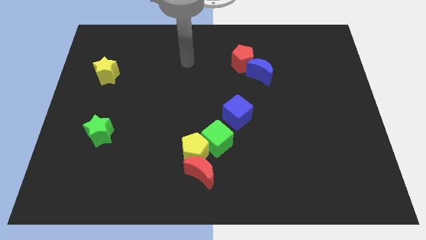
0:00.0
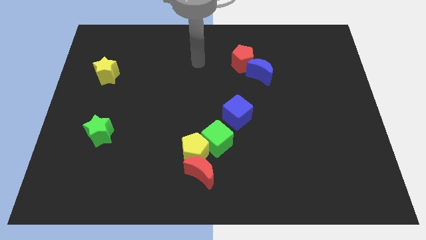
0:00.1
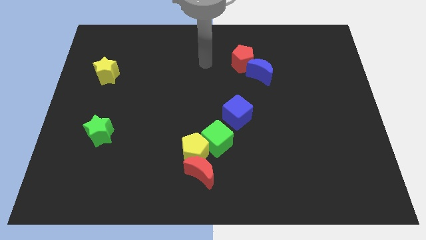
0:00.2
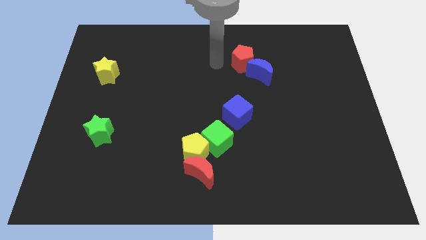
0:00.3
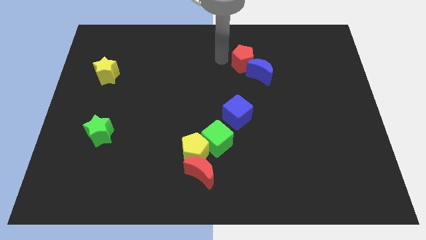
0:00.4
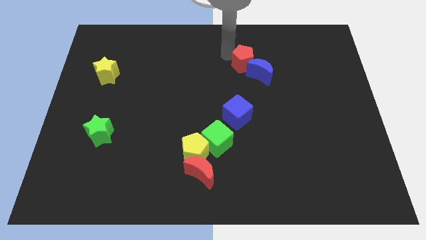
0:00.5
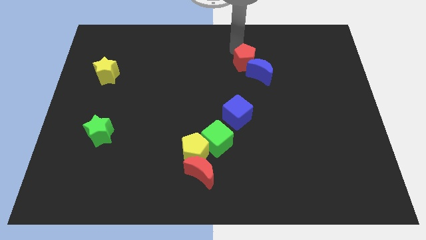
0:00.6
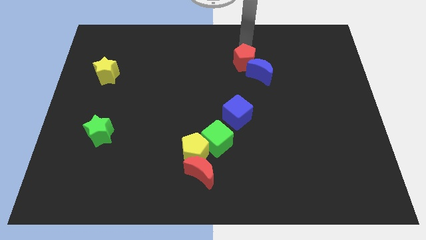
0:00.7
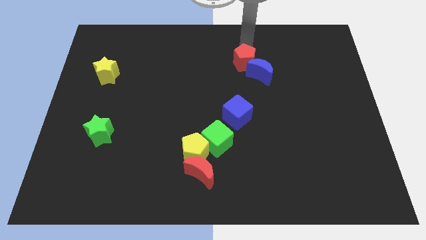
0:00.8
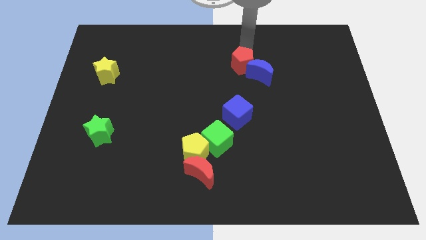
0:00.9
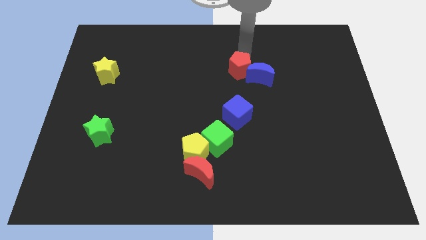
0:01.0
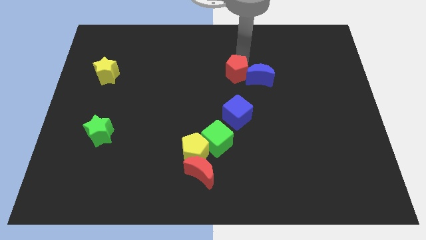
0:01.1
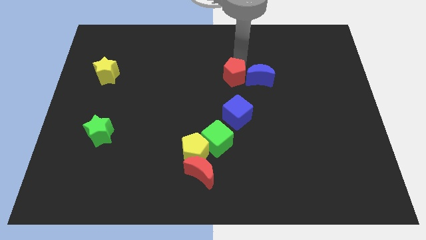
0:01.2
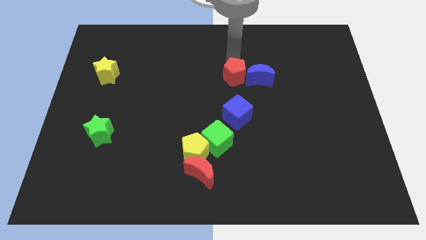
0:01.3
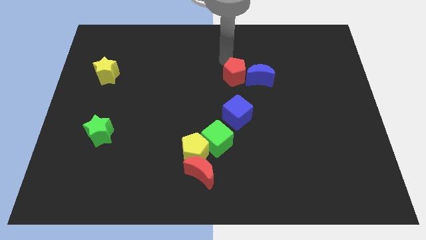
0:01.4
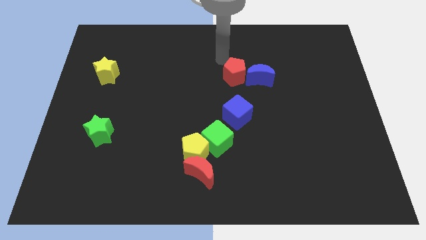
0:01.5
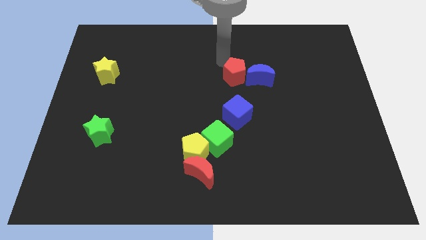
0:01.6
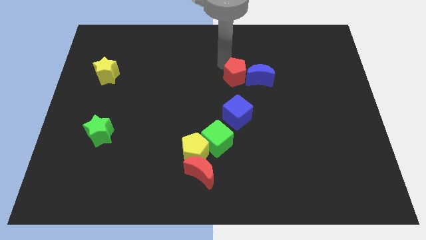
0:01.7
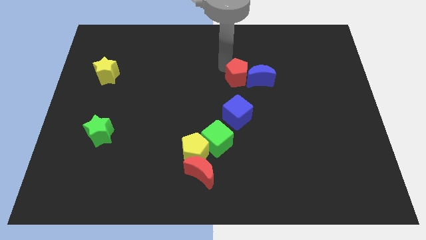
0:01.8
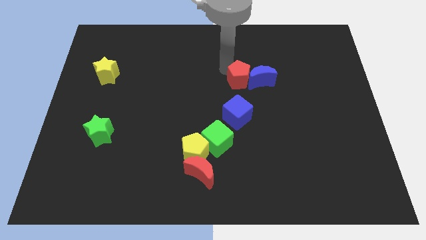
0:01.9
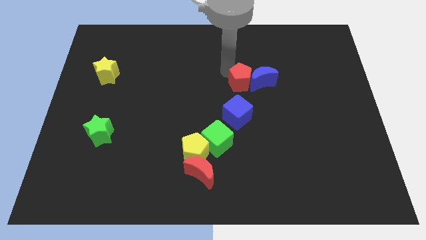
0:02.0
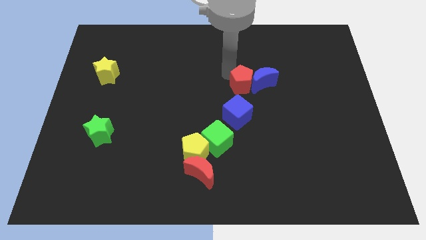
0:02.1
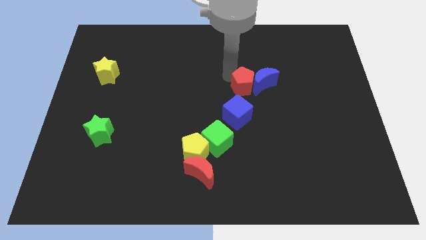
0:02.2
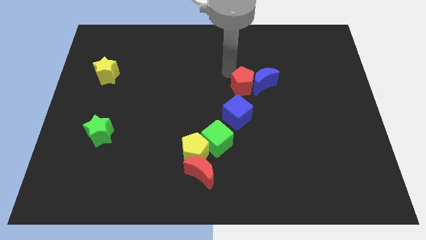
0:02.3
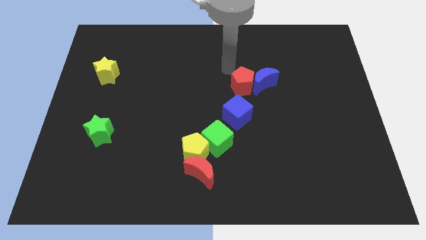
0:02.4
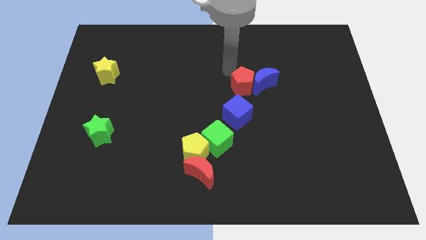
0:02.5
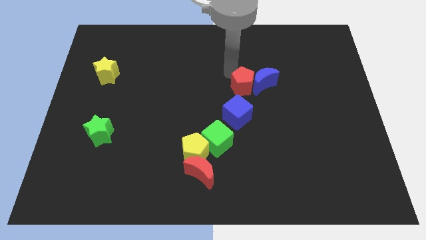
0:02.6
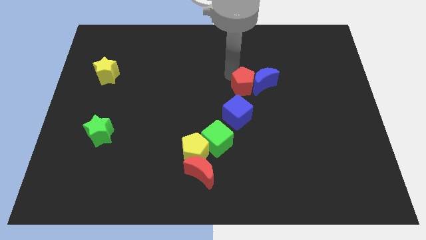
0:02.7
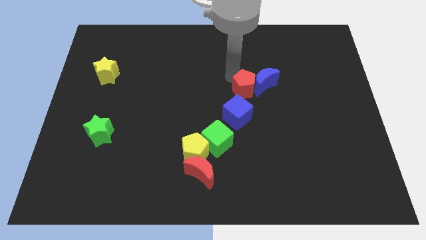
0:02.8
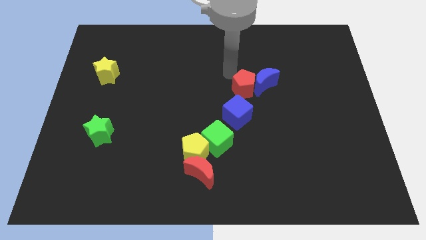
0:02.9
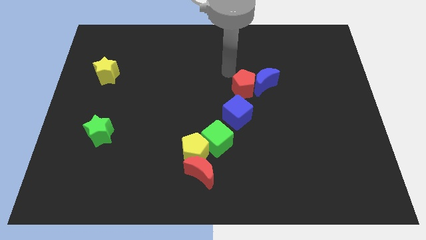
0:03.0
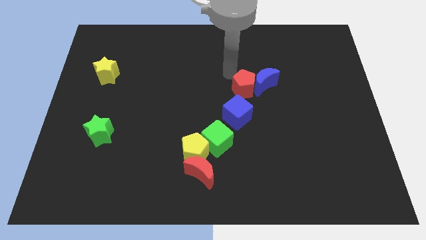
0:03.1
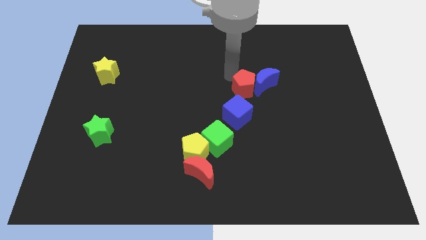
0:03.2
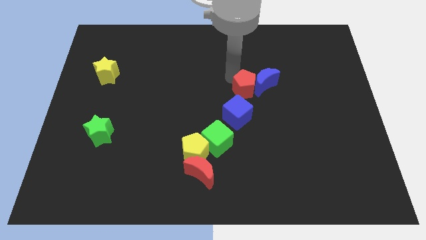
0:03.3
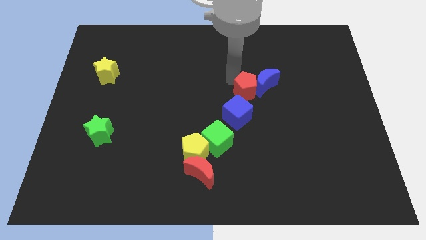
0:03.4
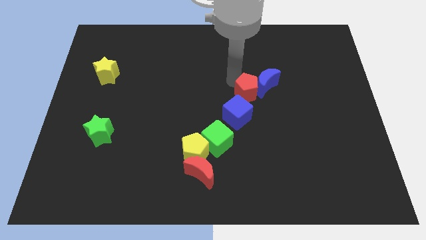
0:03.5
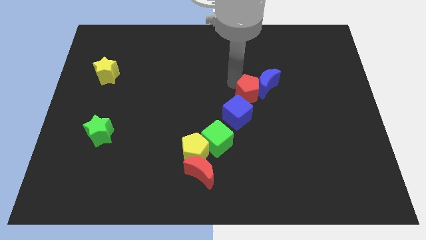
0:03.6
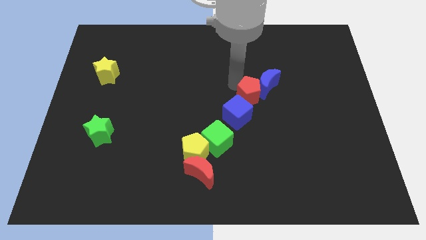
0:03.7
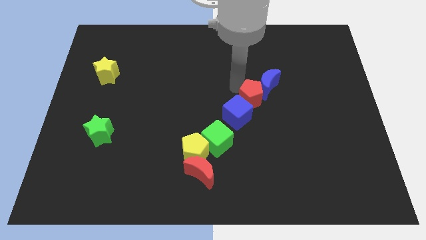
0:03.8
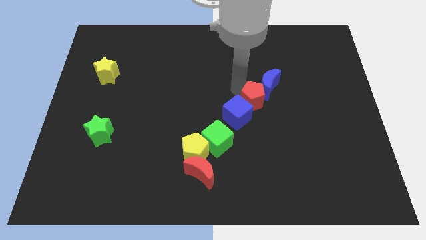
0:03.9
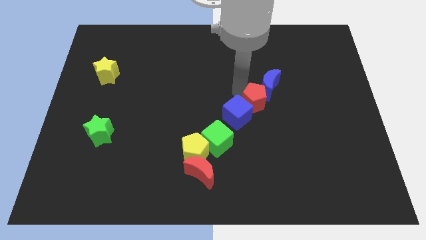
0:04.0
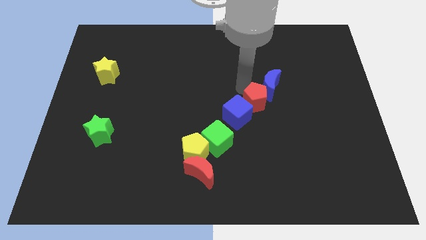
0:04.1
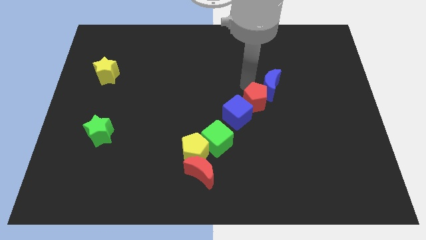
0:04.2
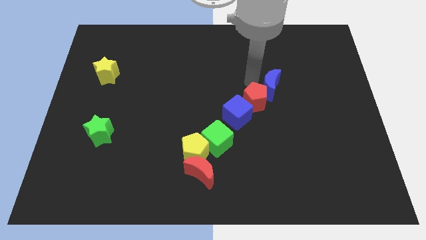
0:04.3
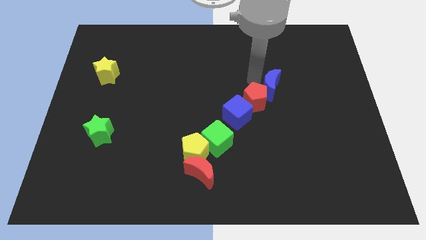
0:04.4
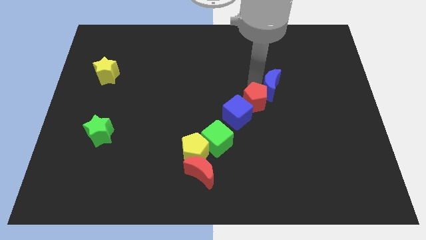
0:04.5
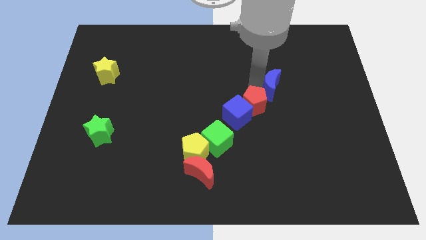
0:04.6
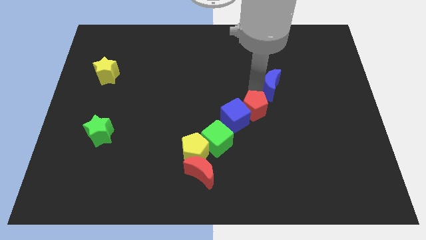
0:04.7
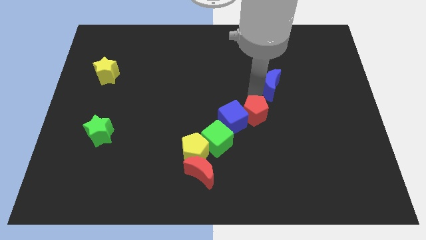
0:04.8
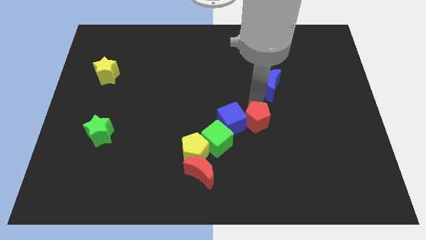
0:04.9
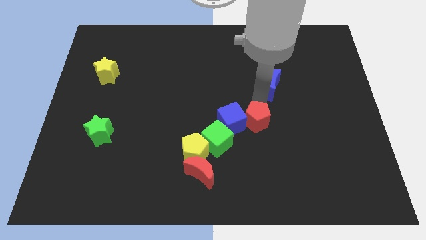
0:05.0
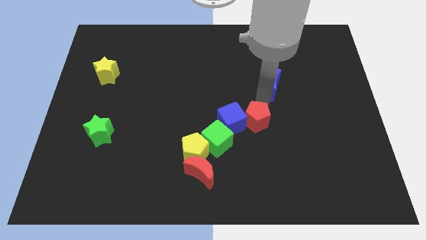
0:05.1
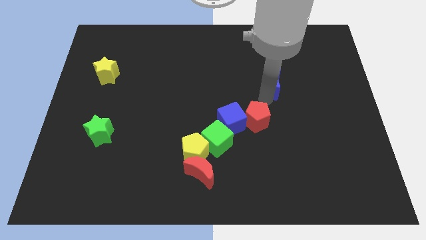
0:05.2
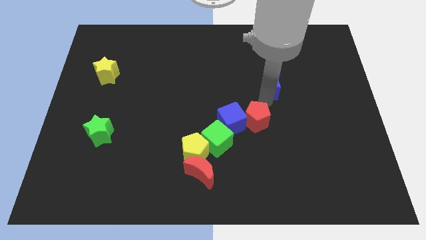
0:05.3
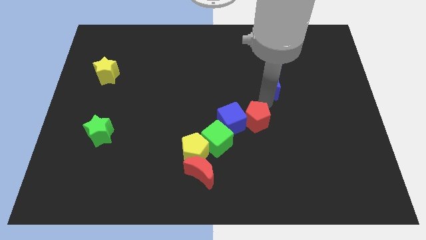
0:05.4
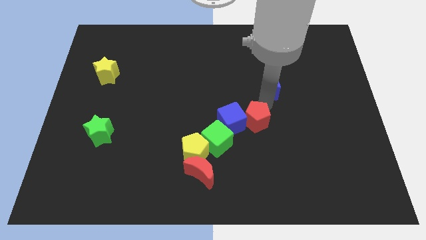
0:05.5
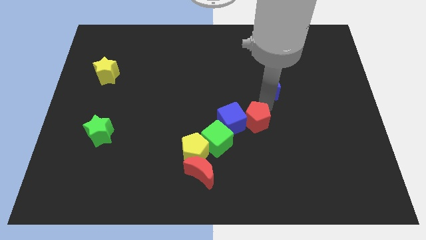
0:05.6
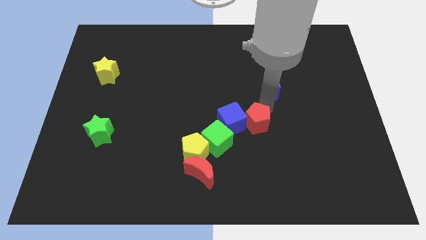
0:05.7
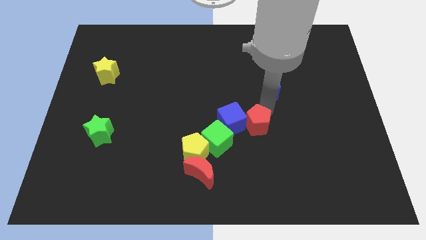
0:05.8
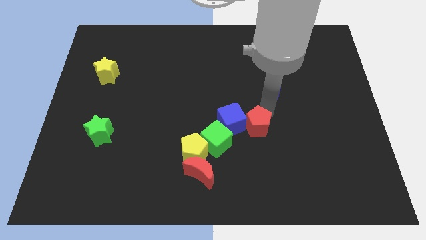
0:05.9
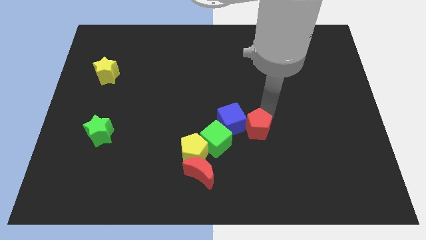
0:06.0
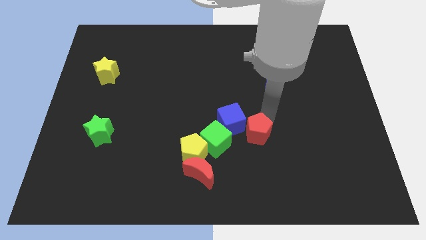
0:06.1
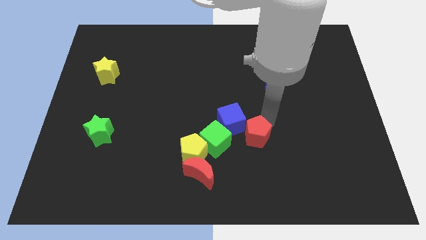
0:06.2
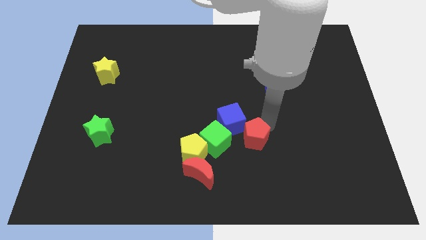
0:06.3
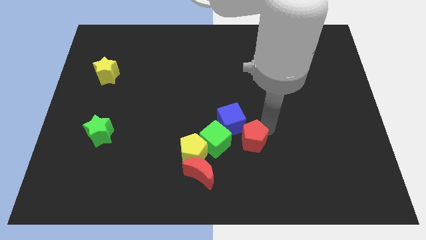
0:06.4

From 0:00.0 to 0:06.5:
put the red pentagon below the blue cube

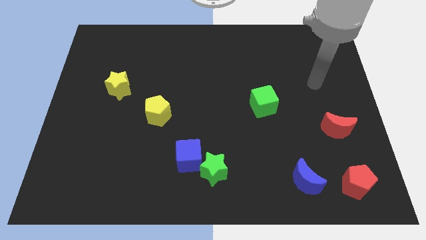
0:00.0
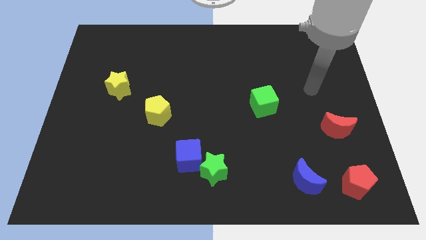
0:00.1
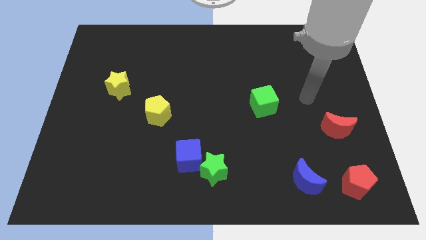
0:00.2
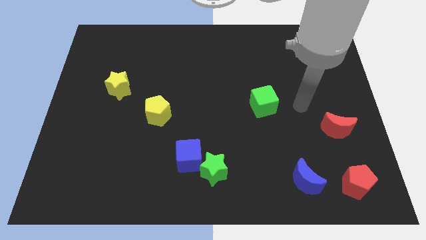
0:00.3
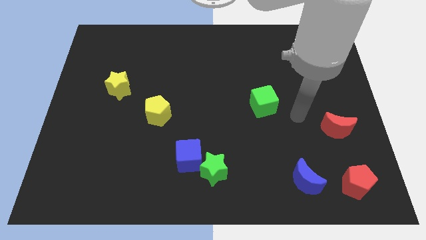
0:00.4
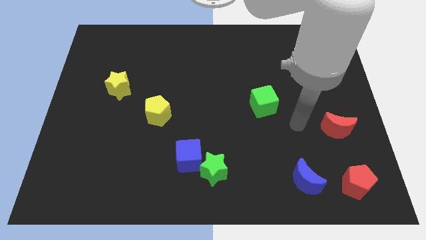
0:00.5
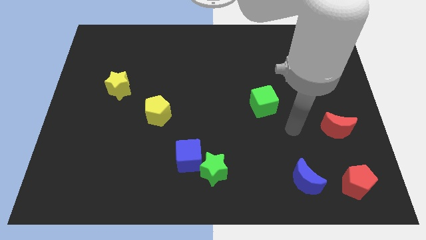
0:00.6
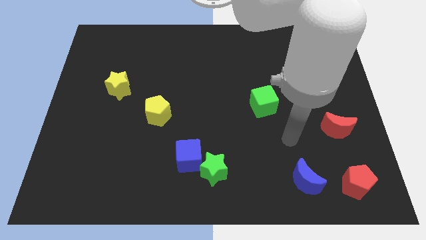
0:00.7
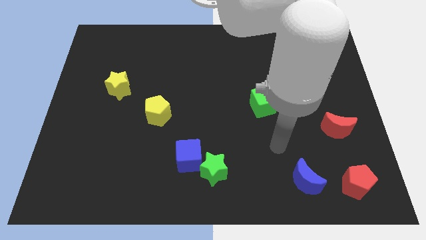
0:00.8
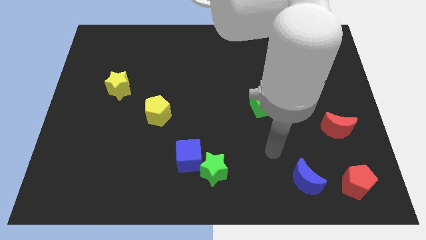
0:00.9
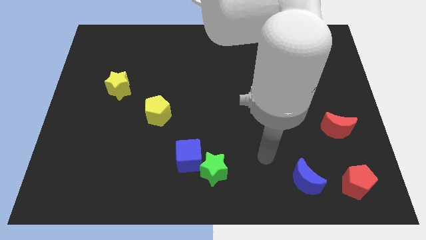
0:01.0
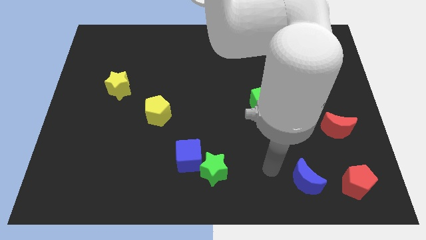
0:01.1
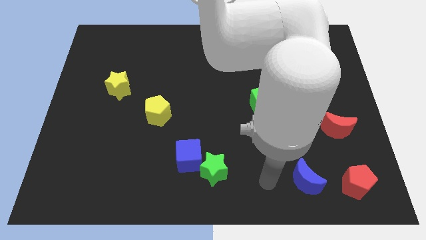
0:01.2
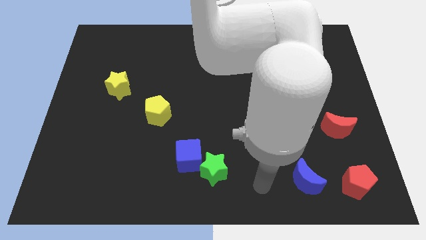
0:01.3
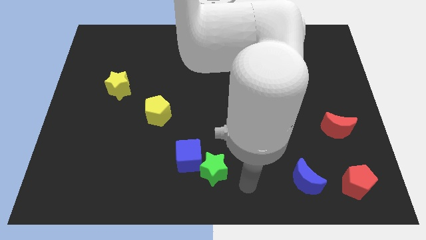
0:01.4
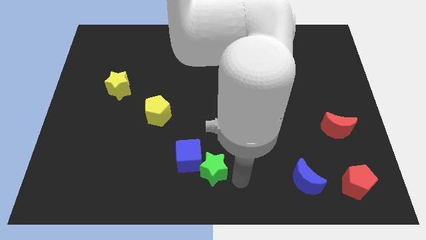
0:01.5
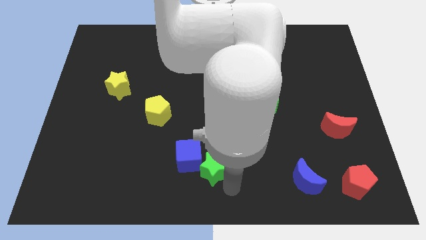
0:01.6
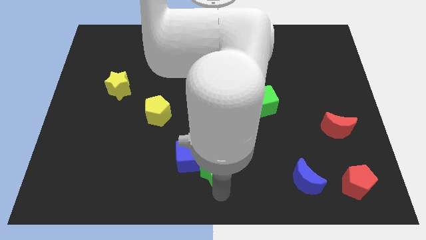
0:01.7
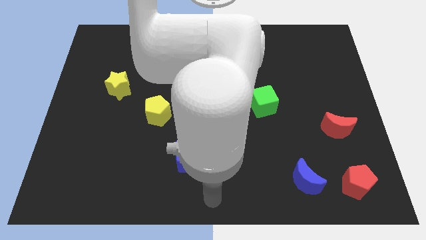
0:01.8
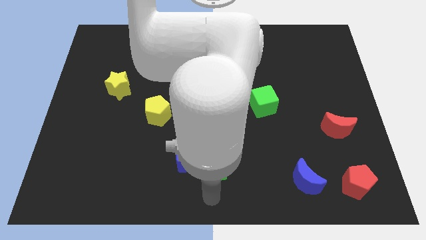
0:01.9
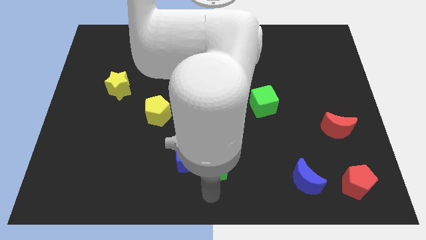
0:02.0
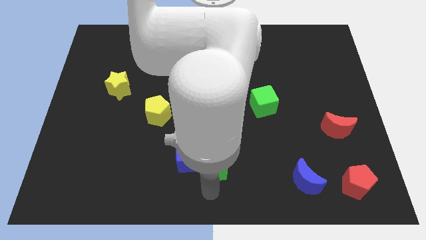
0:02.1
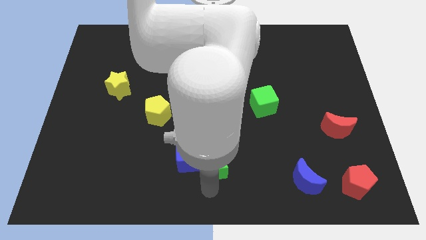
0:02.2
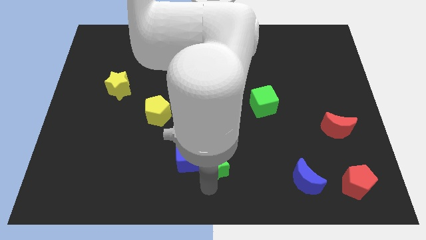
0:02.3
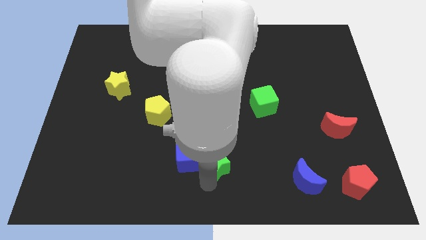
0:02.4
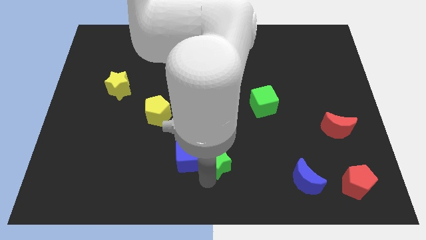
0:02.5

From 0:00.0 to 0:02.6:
push the green star to the top right of the blue cube
